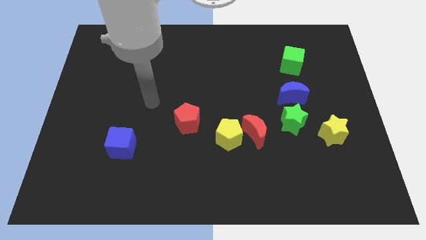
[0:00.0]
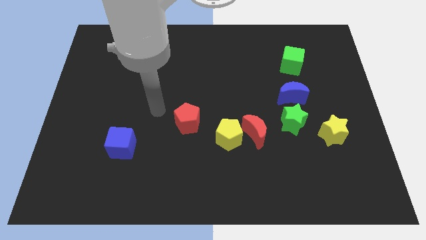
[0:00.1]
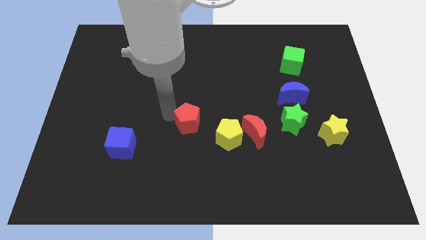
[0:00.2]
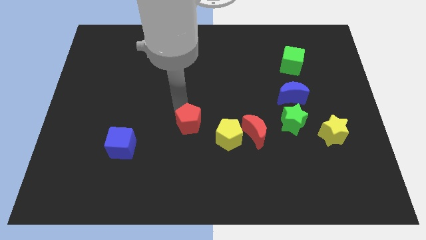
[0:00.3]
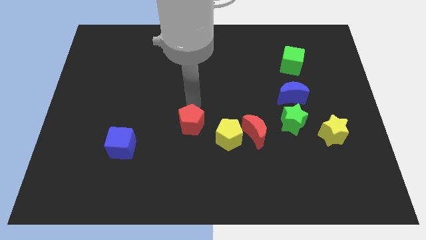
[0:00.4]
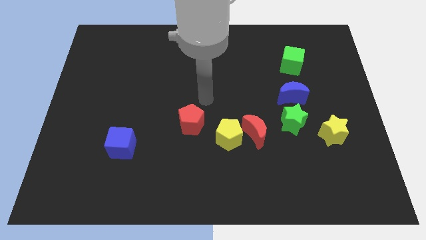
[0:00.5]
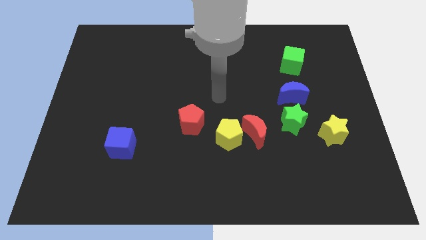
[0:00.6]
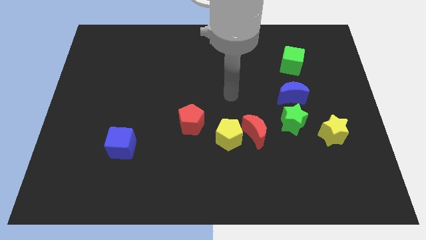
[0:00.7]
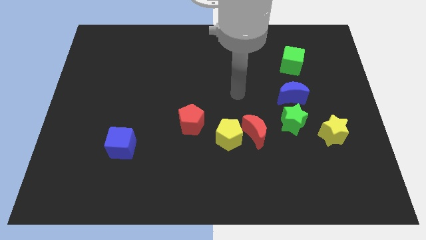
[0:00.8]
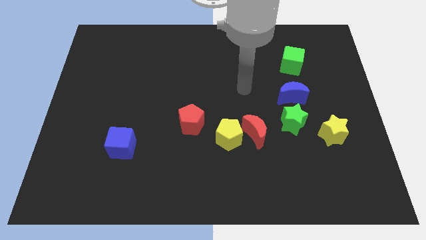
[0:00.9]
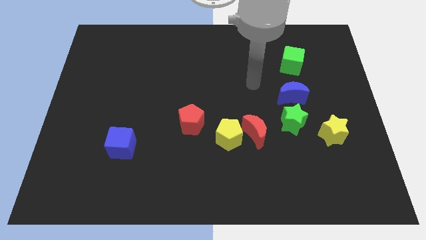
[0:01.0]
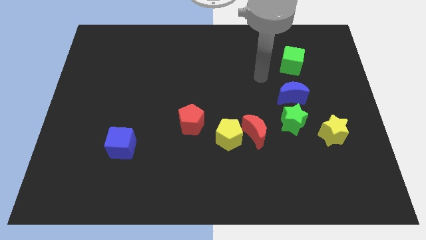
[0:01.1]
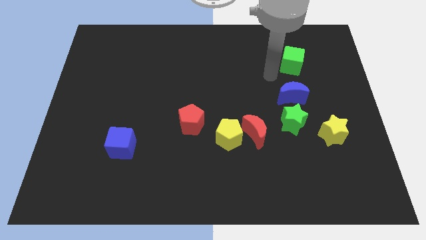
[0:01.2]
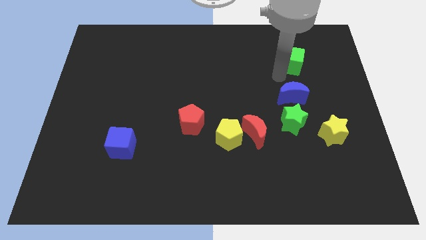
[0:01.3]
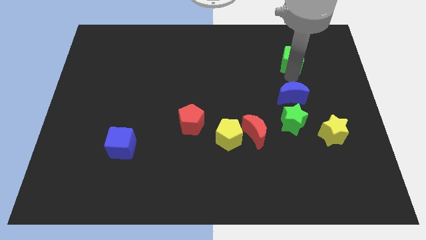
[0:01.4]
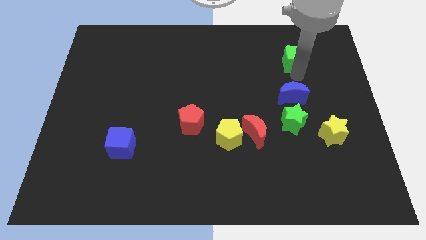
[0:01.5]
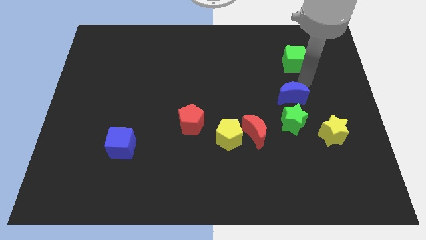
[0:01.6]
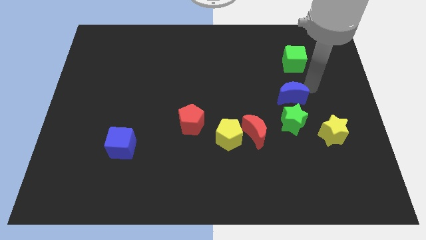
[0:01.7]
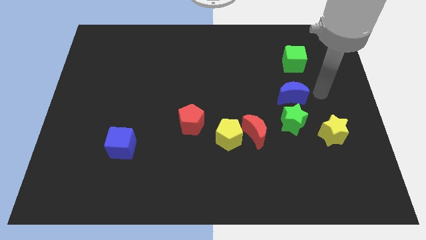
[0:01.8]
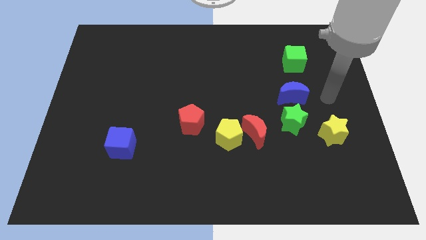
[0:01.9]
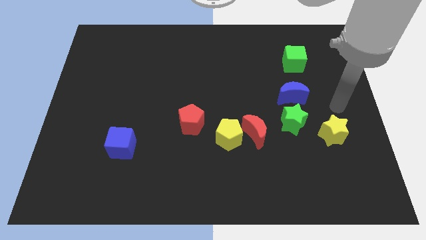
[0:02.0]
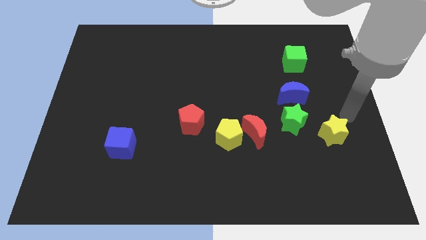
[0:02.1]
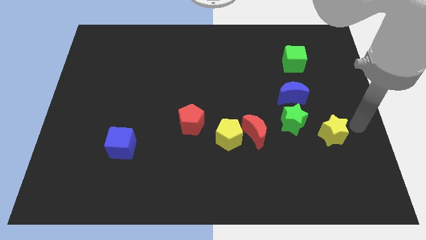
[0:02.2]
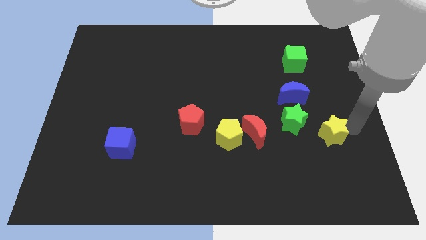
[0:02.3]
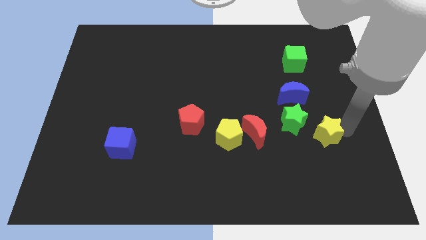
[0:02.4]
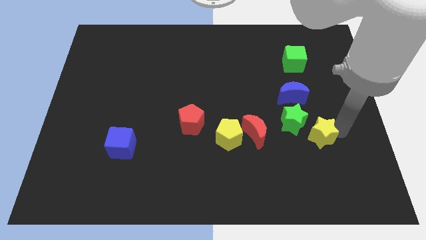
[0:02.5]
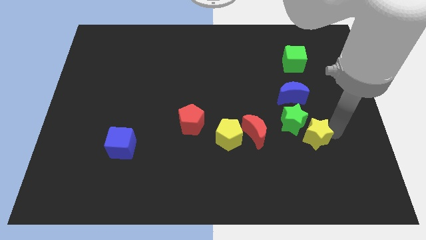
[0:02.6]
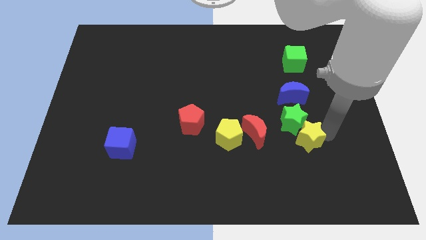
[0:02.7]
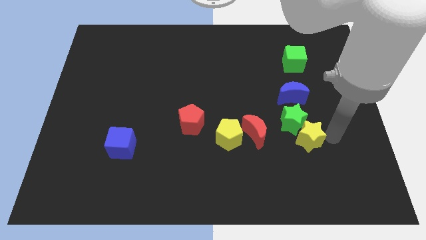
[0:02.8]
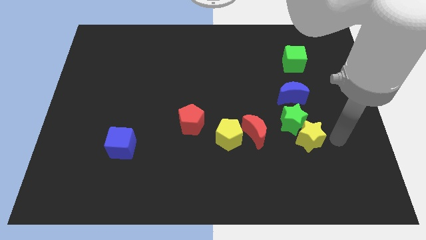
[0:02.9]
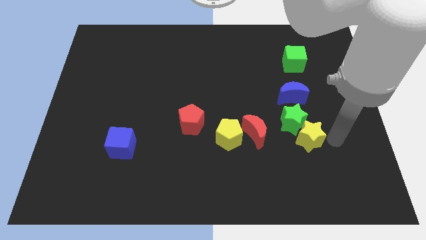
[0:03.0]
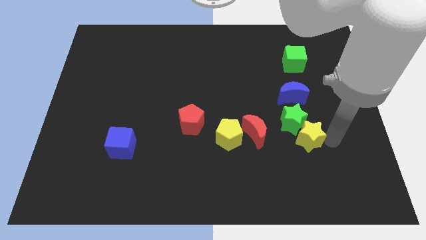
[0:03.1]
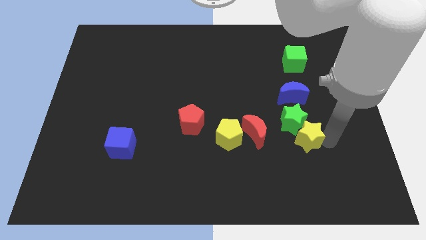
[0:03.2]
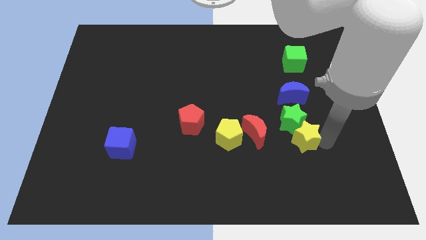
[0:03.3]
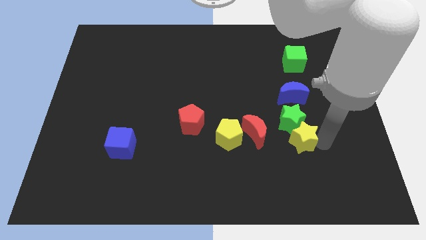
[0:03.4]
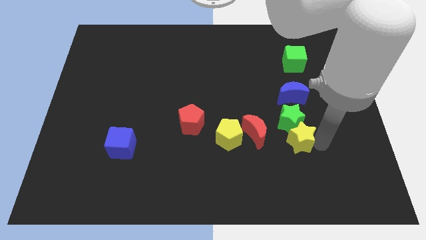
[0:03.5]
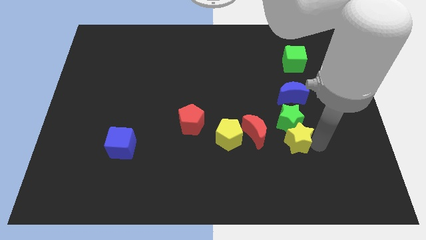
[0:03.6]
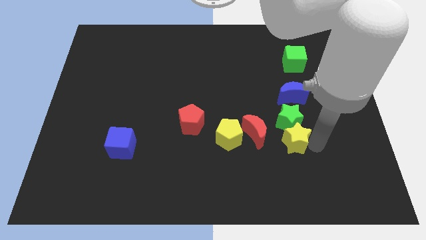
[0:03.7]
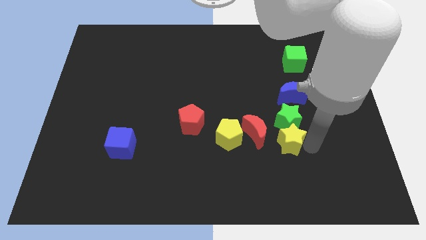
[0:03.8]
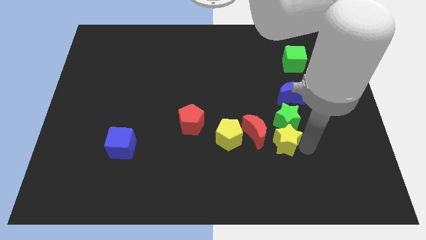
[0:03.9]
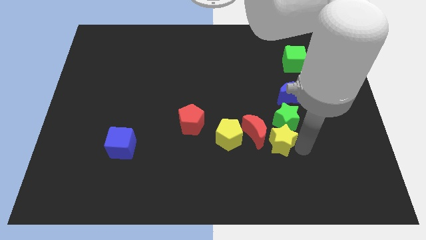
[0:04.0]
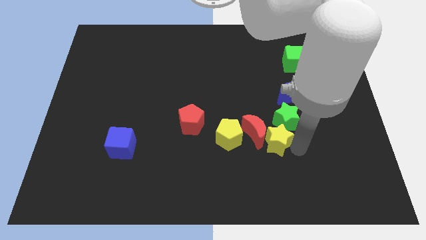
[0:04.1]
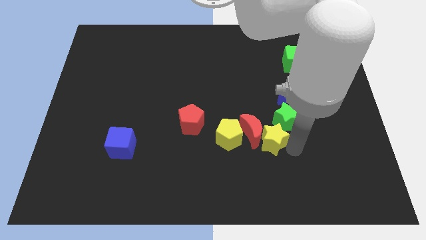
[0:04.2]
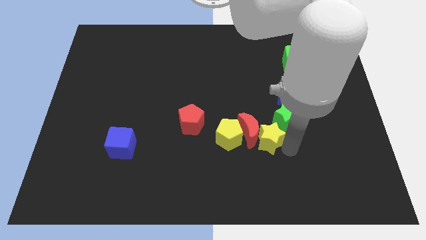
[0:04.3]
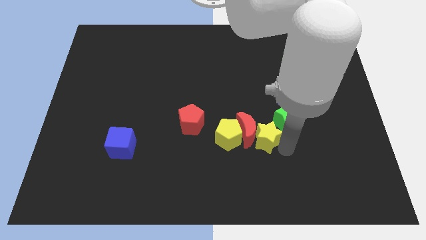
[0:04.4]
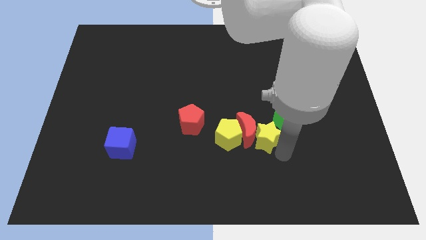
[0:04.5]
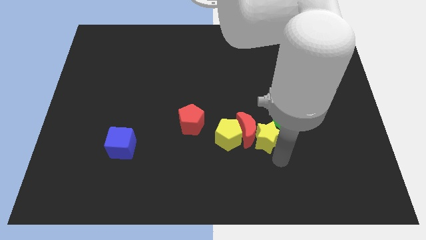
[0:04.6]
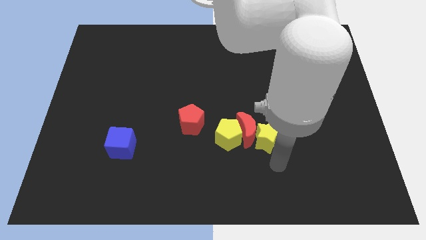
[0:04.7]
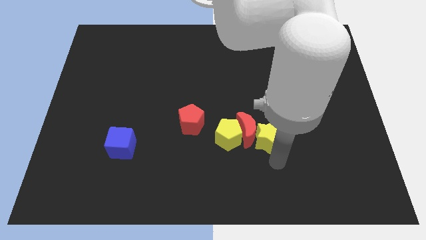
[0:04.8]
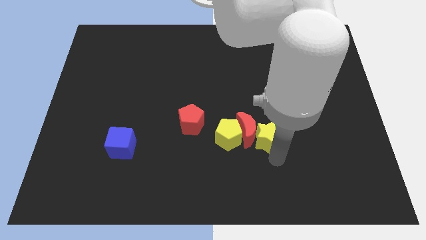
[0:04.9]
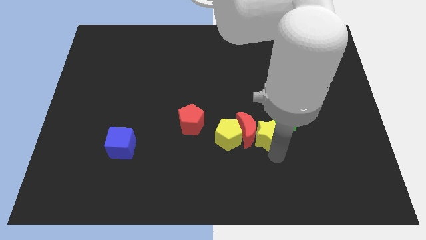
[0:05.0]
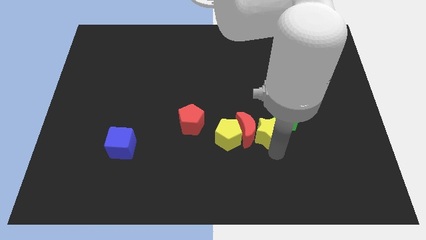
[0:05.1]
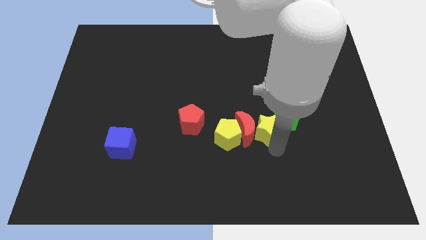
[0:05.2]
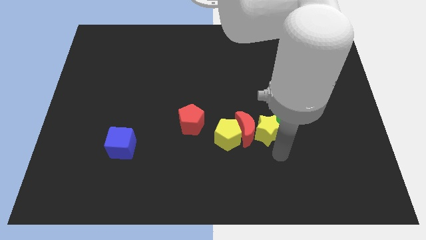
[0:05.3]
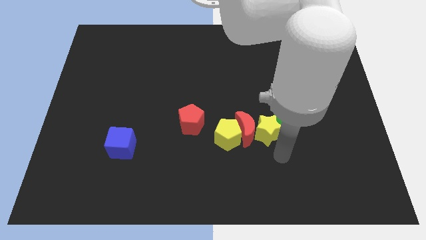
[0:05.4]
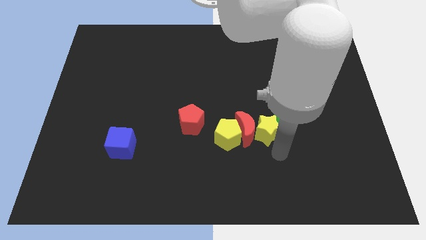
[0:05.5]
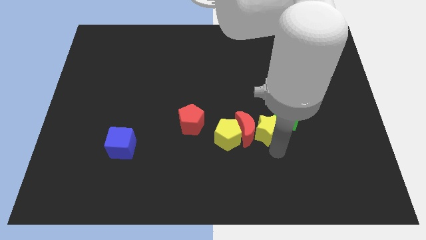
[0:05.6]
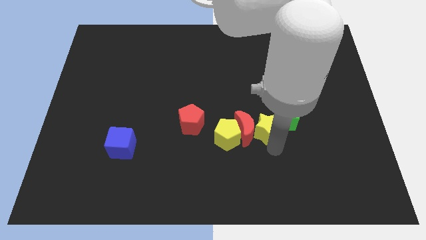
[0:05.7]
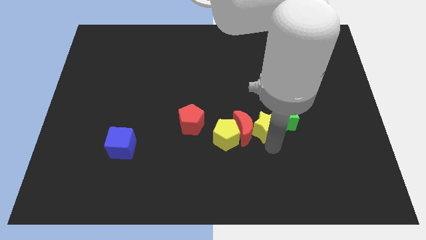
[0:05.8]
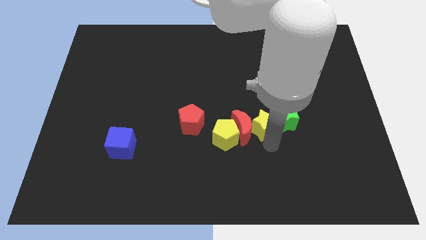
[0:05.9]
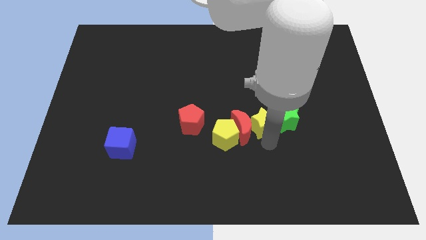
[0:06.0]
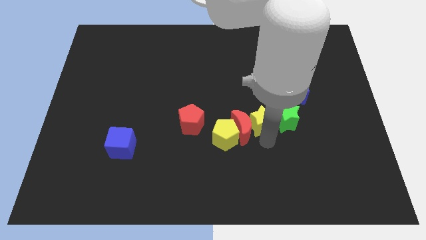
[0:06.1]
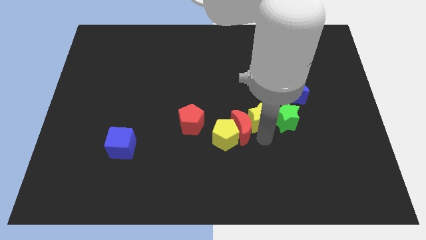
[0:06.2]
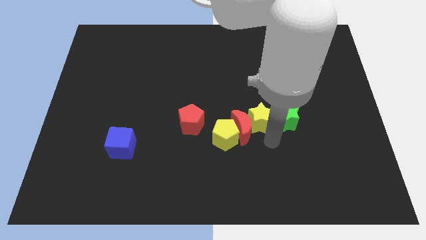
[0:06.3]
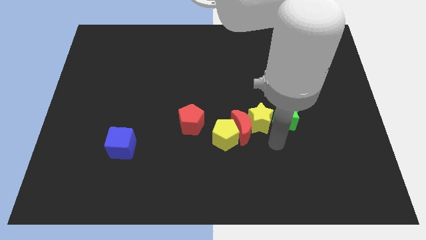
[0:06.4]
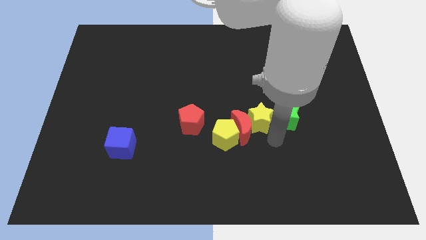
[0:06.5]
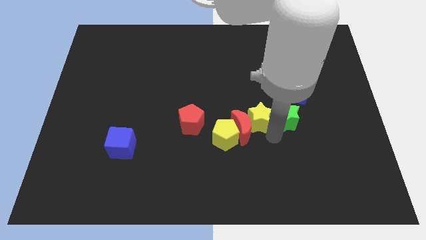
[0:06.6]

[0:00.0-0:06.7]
move the yellow star above the red moon

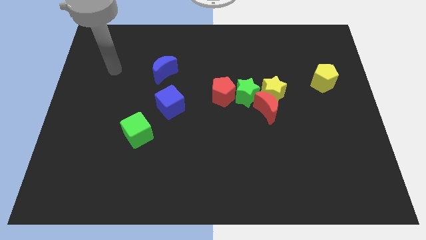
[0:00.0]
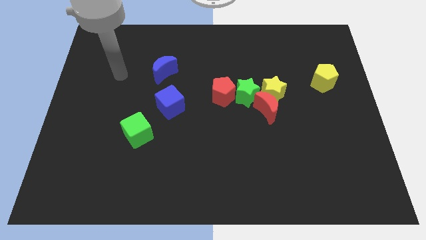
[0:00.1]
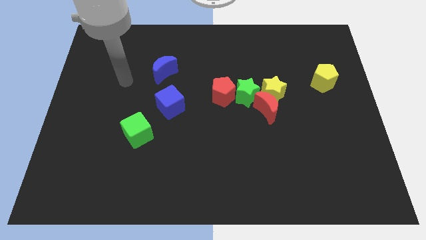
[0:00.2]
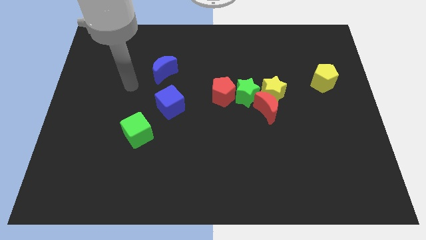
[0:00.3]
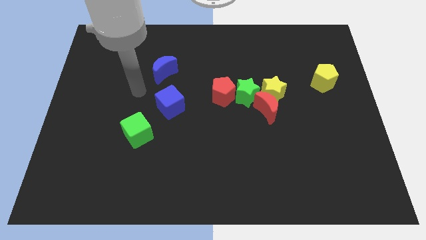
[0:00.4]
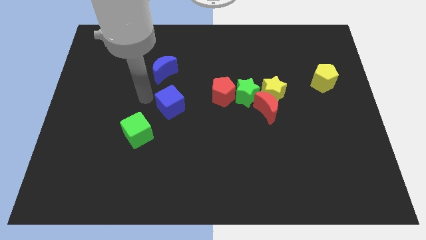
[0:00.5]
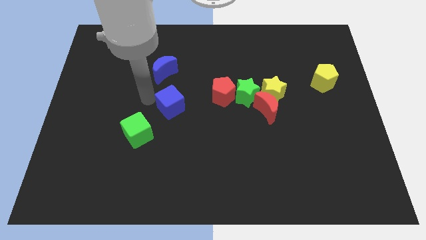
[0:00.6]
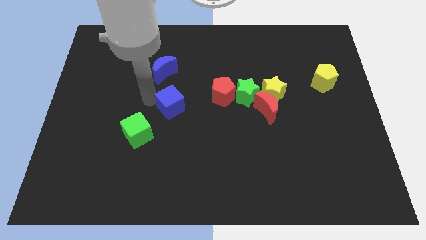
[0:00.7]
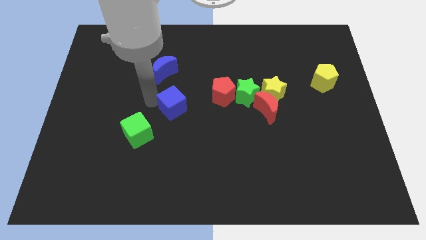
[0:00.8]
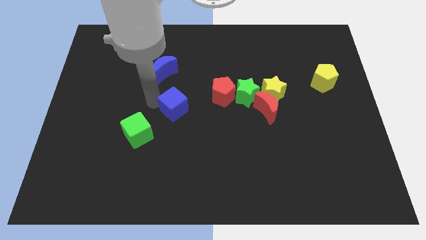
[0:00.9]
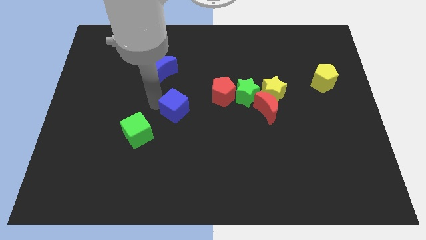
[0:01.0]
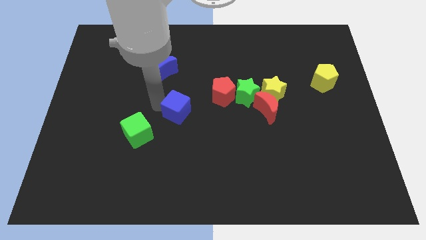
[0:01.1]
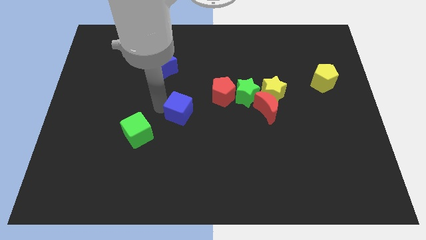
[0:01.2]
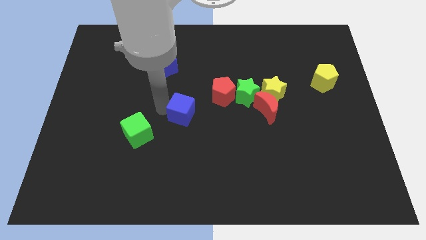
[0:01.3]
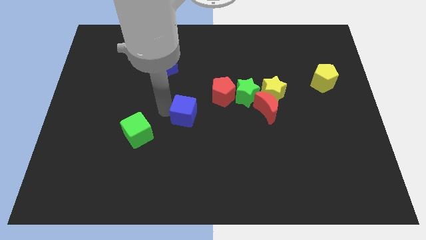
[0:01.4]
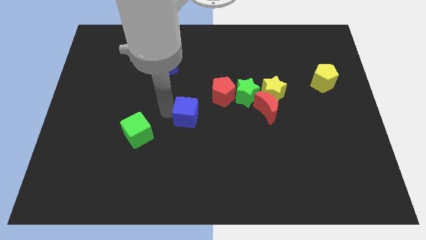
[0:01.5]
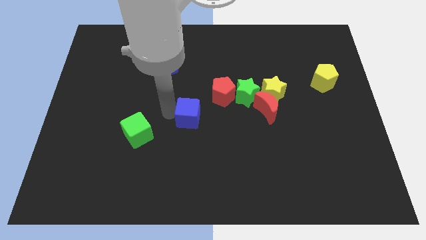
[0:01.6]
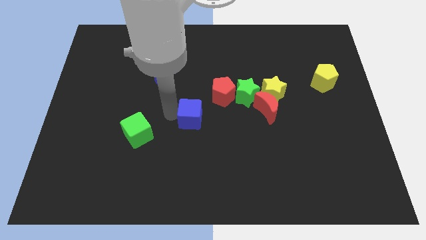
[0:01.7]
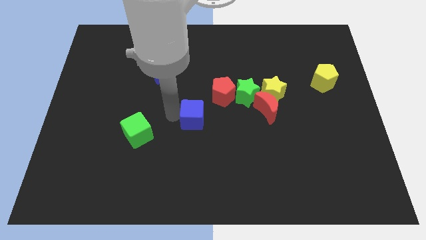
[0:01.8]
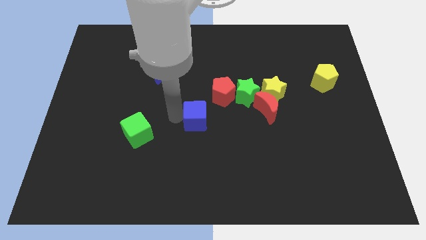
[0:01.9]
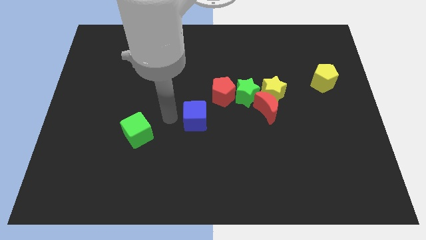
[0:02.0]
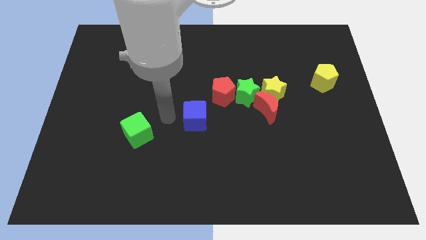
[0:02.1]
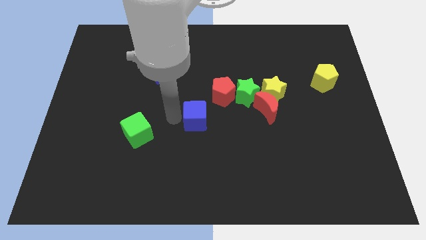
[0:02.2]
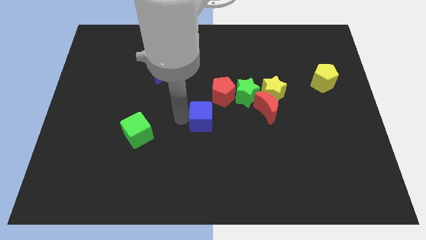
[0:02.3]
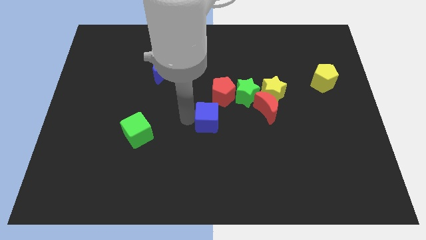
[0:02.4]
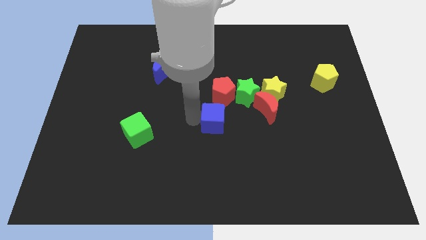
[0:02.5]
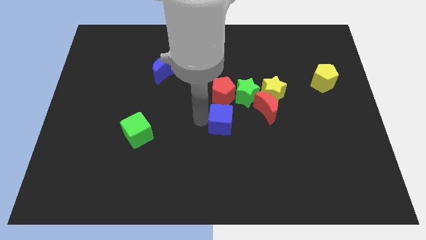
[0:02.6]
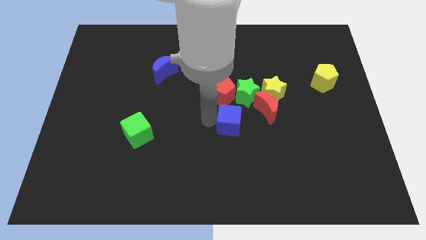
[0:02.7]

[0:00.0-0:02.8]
push the blue cube to the bottom left side of the red moon
